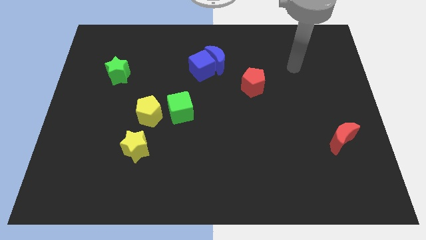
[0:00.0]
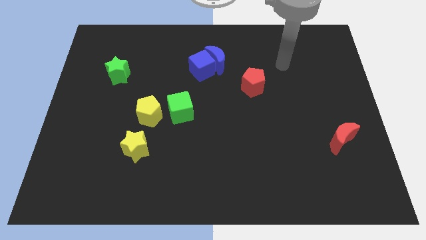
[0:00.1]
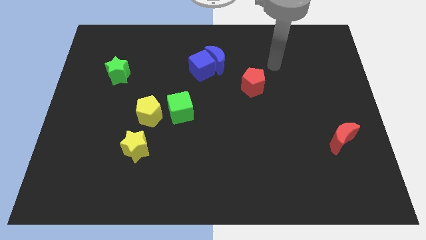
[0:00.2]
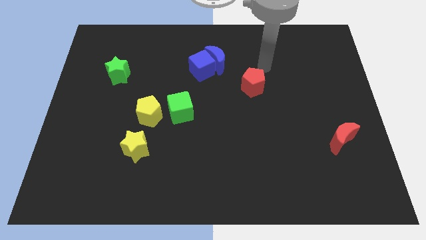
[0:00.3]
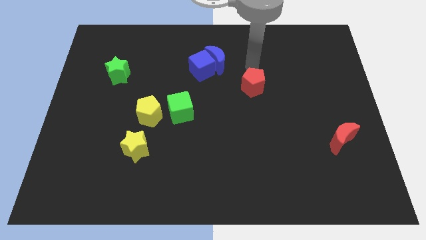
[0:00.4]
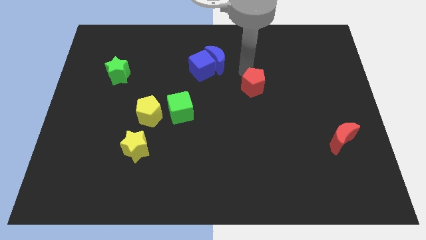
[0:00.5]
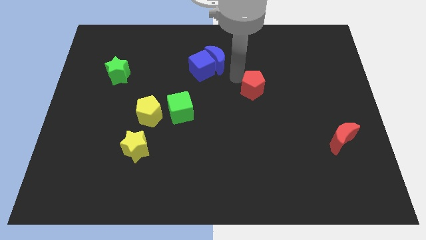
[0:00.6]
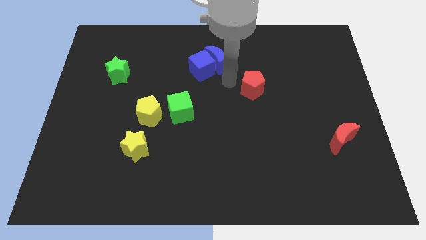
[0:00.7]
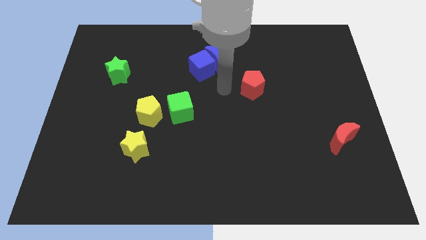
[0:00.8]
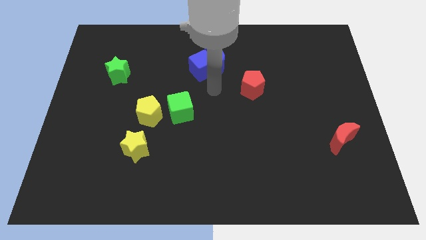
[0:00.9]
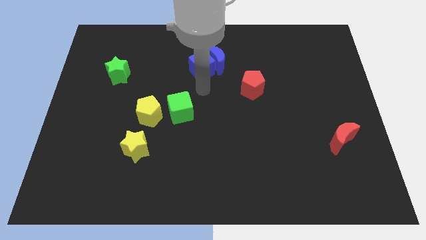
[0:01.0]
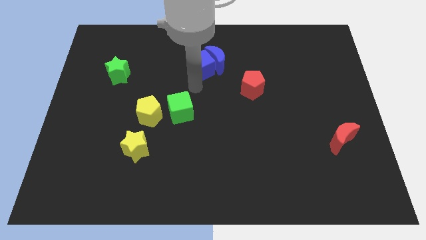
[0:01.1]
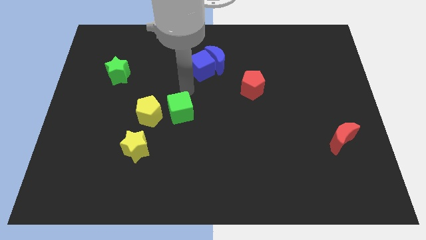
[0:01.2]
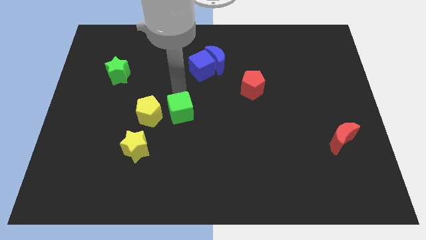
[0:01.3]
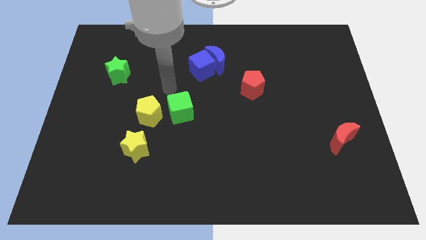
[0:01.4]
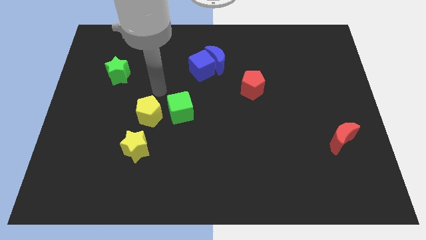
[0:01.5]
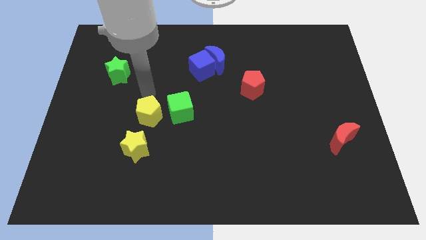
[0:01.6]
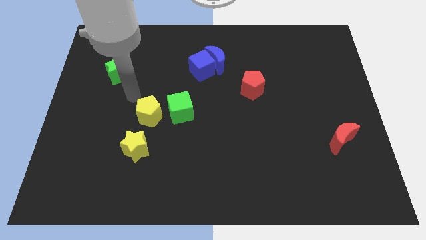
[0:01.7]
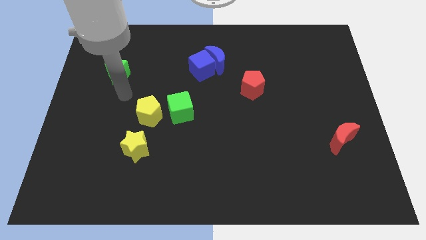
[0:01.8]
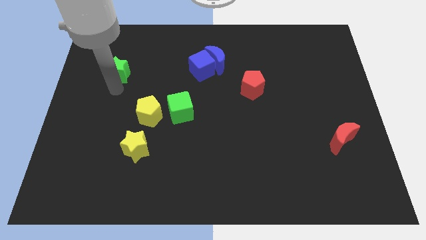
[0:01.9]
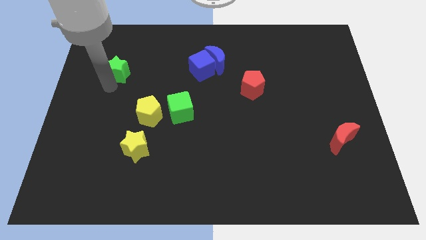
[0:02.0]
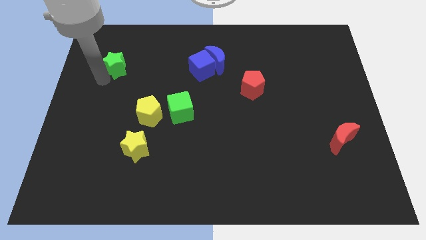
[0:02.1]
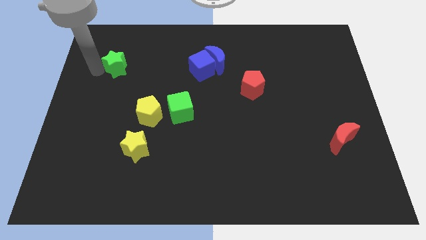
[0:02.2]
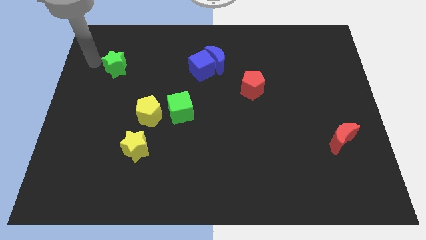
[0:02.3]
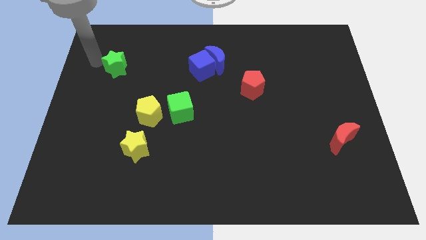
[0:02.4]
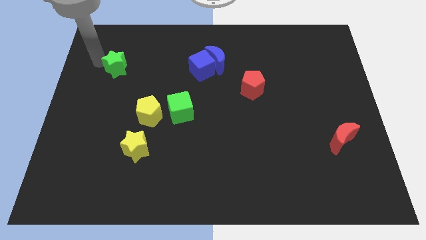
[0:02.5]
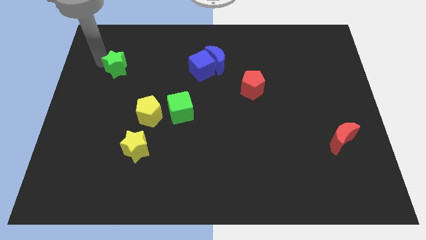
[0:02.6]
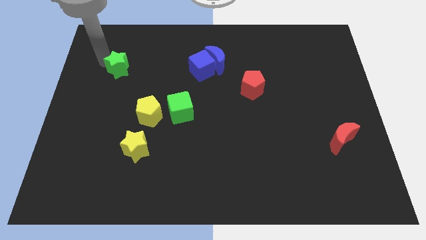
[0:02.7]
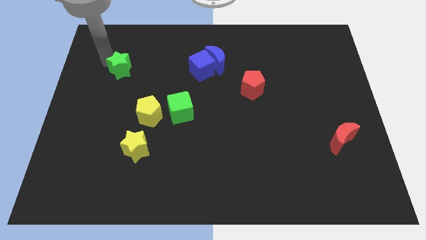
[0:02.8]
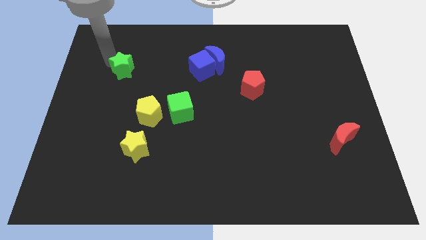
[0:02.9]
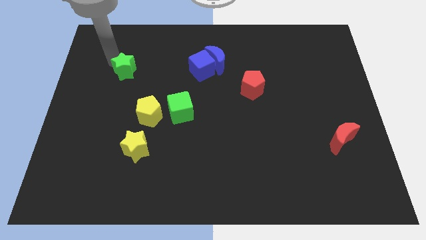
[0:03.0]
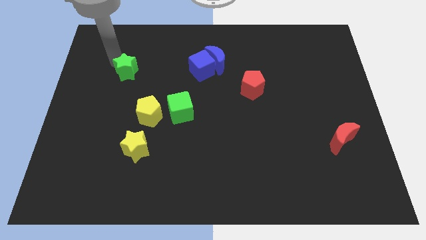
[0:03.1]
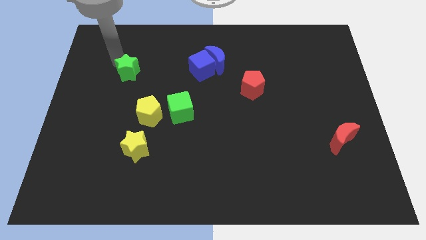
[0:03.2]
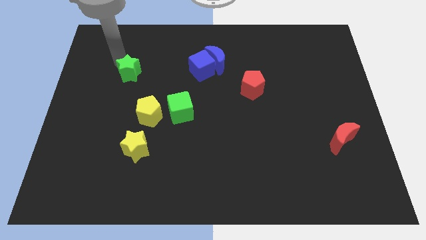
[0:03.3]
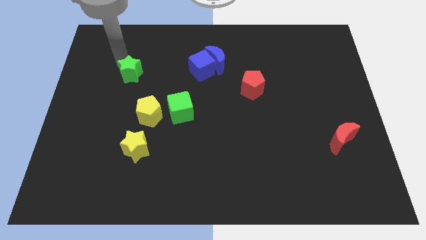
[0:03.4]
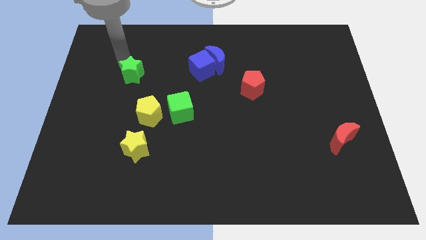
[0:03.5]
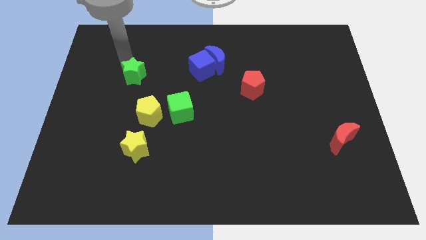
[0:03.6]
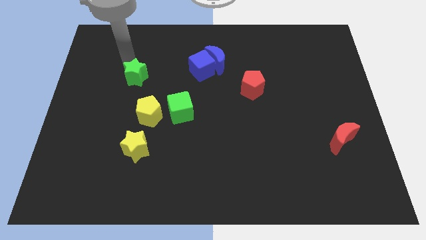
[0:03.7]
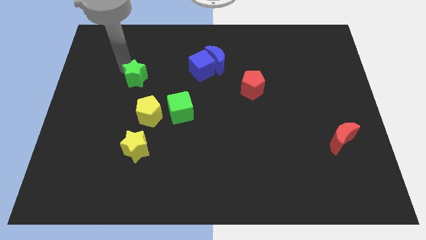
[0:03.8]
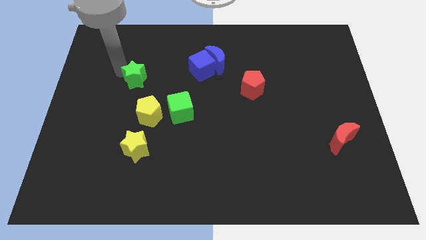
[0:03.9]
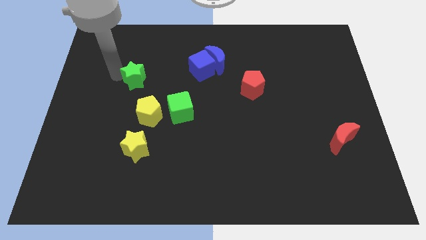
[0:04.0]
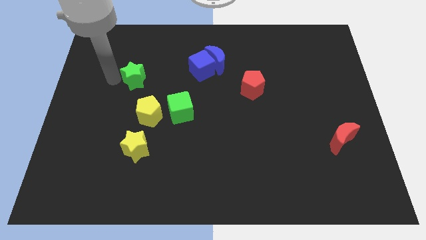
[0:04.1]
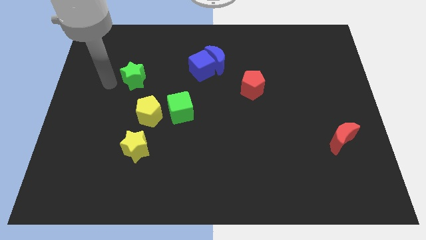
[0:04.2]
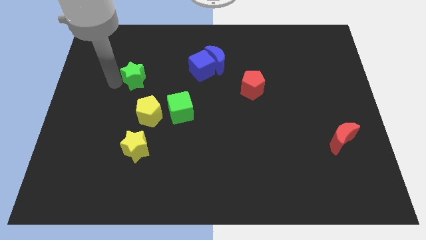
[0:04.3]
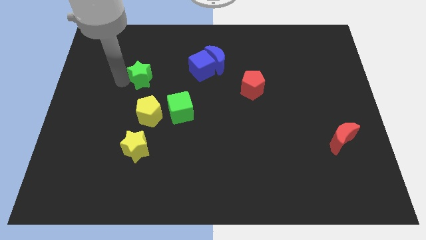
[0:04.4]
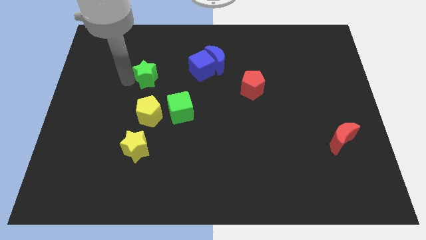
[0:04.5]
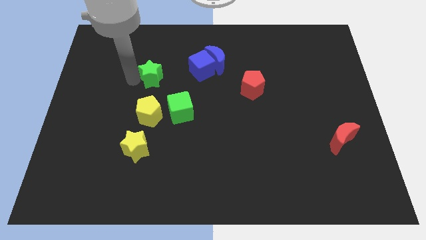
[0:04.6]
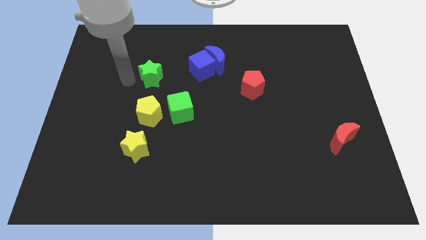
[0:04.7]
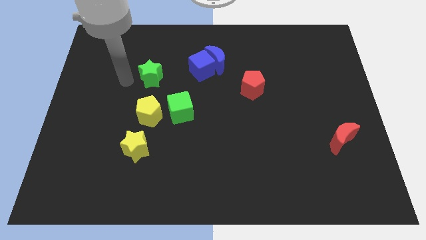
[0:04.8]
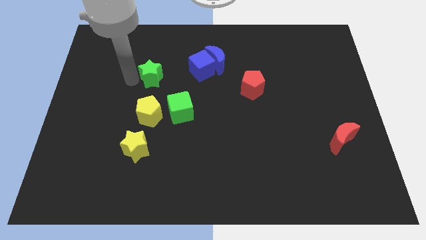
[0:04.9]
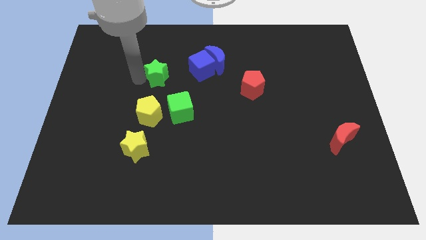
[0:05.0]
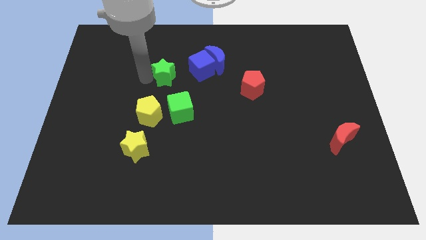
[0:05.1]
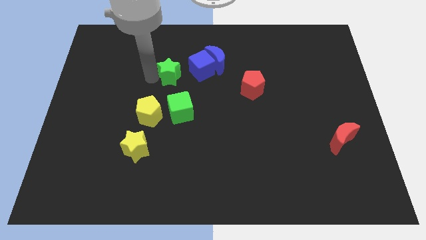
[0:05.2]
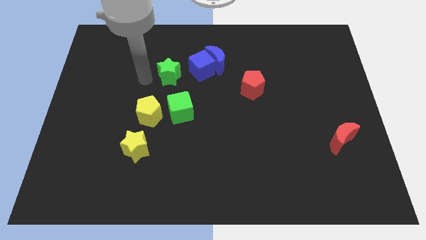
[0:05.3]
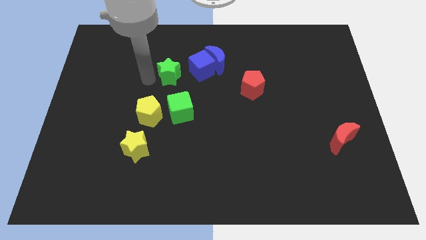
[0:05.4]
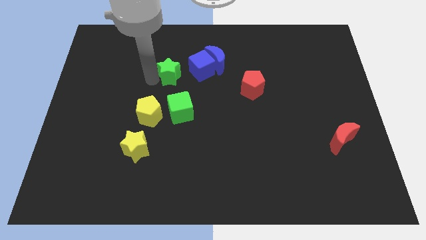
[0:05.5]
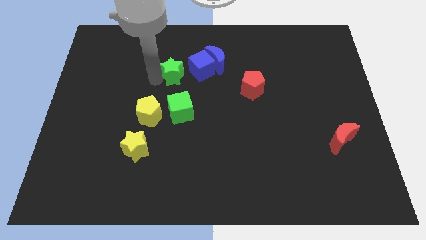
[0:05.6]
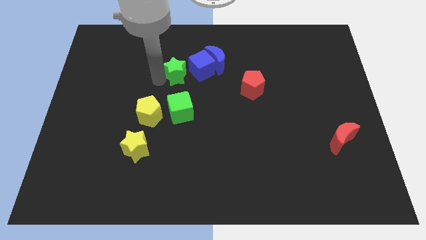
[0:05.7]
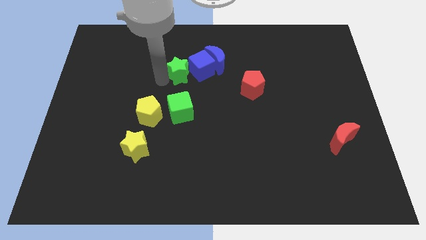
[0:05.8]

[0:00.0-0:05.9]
move the green star towards the blue cube

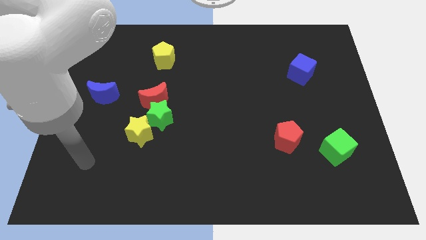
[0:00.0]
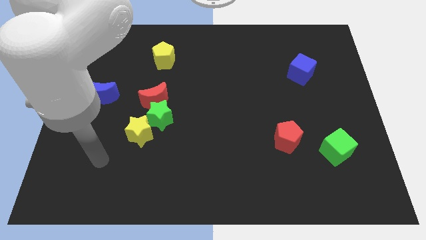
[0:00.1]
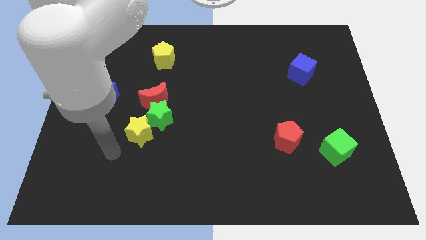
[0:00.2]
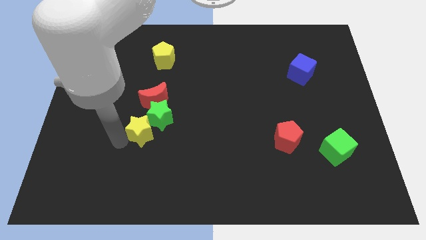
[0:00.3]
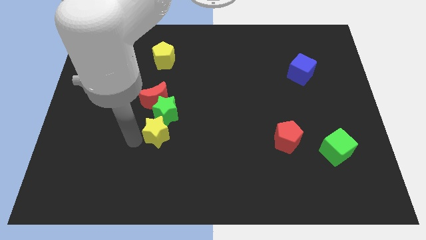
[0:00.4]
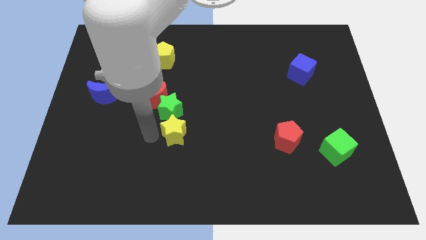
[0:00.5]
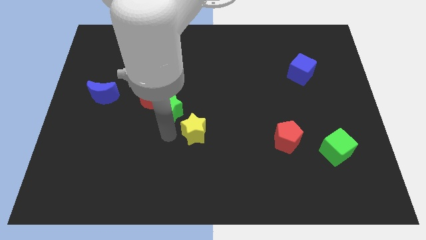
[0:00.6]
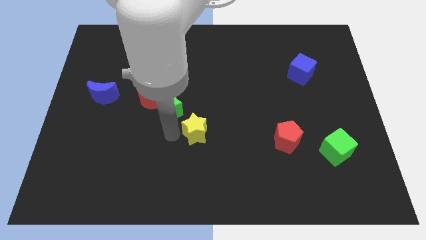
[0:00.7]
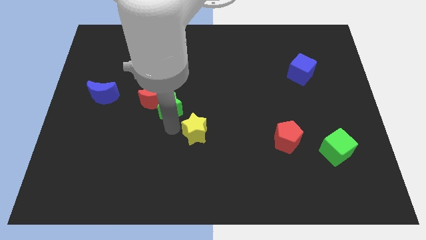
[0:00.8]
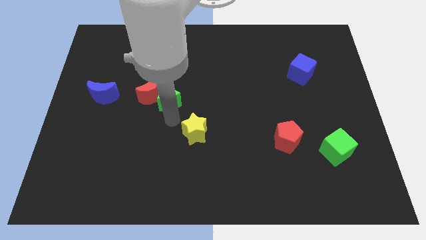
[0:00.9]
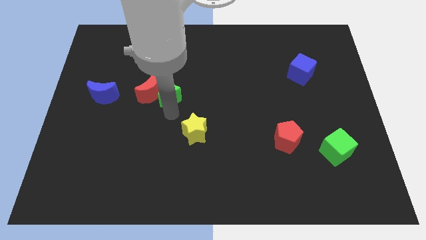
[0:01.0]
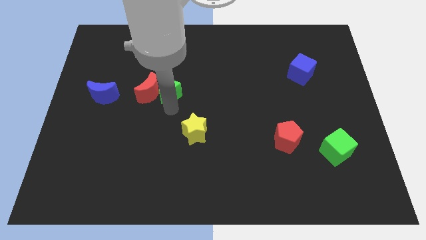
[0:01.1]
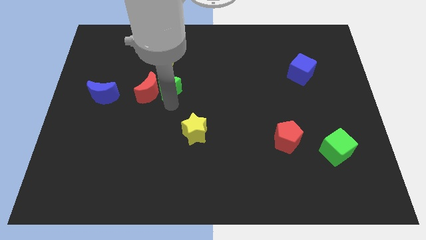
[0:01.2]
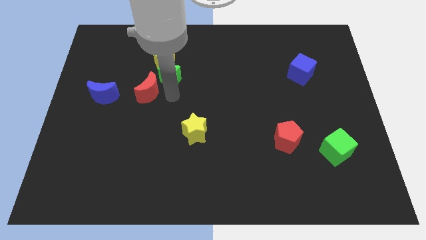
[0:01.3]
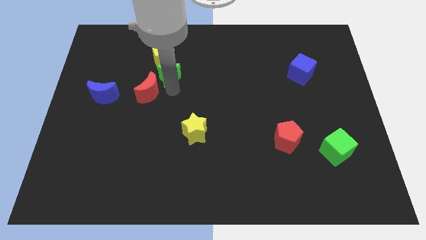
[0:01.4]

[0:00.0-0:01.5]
slide the green star close to the yellow pentagon
